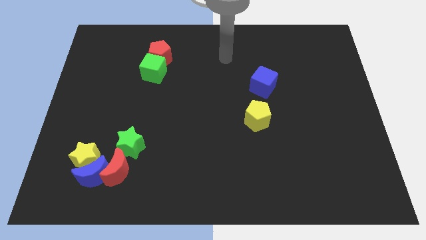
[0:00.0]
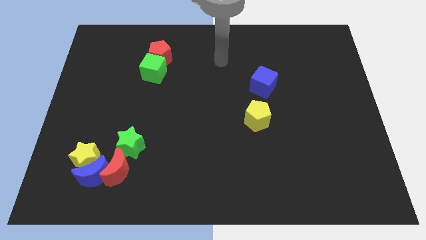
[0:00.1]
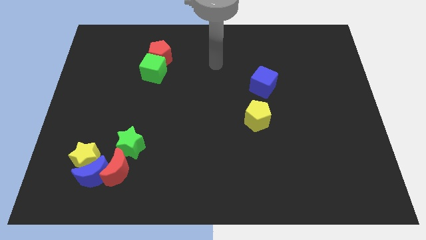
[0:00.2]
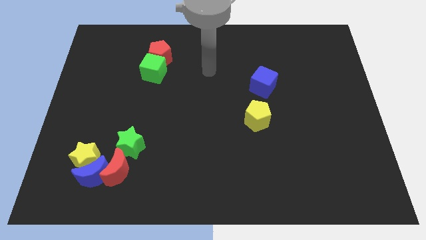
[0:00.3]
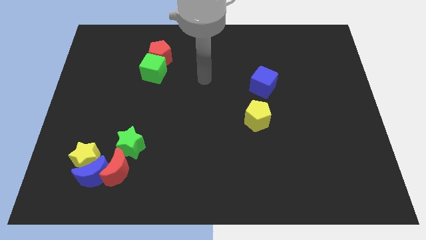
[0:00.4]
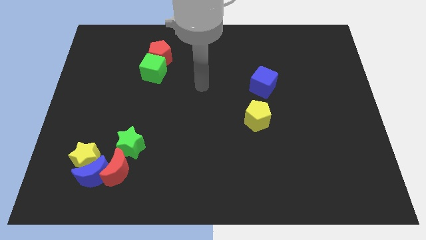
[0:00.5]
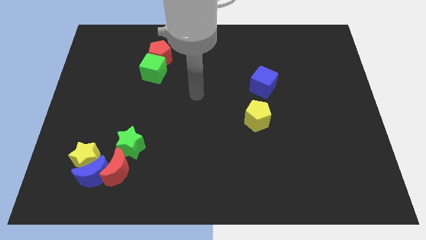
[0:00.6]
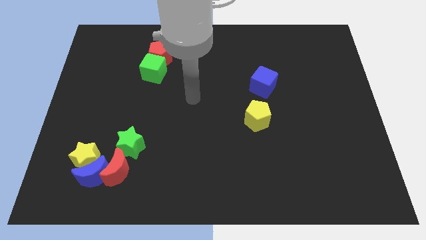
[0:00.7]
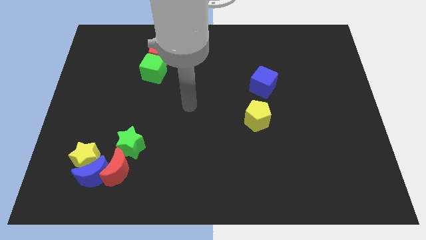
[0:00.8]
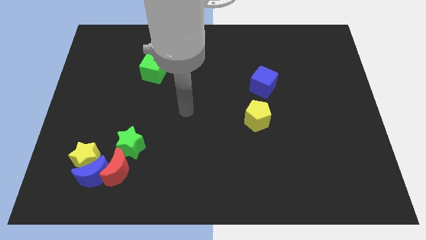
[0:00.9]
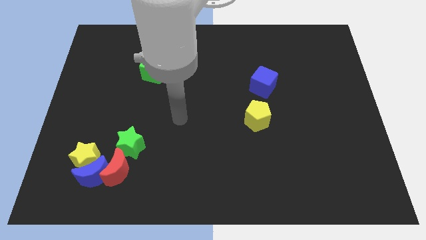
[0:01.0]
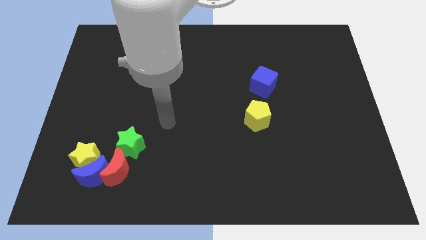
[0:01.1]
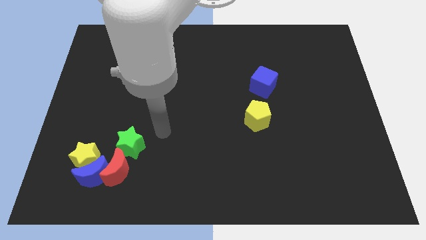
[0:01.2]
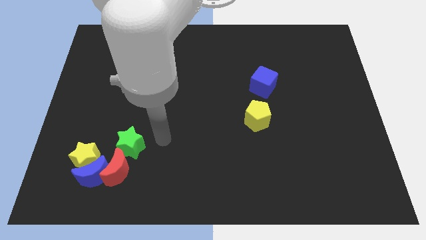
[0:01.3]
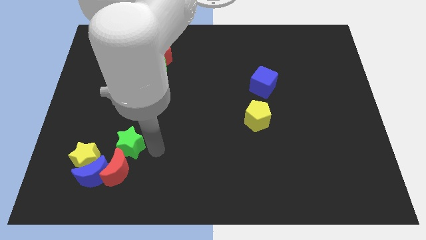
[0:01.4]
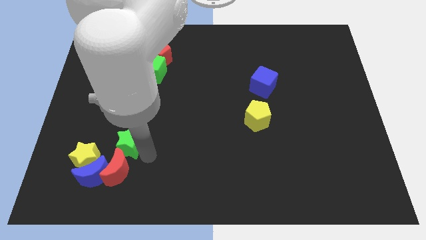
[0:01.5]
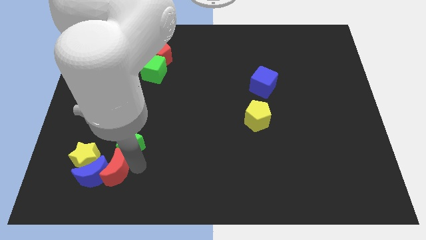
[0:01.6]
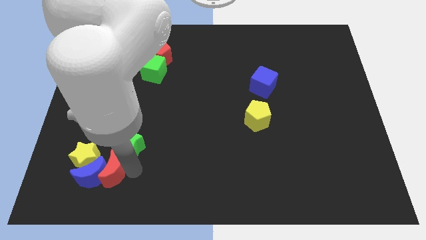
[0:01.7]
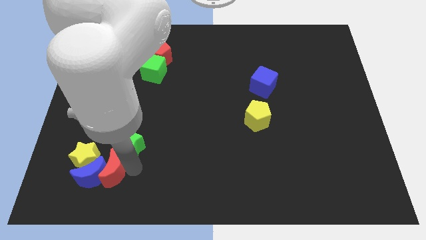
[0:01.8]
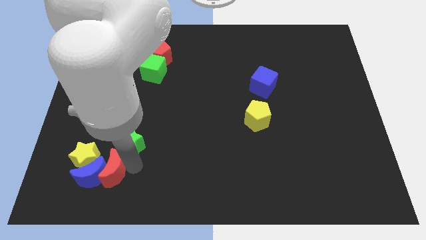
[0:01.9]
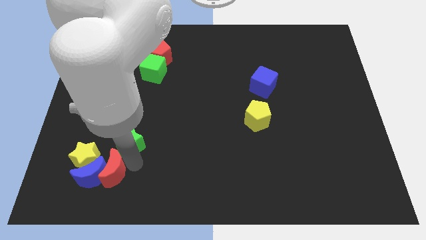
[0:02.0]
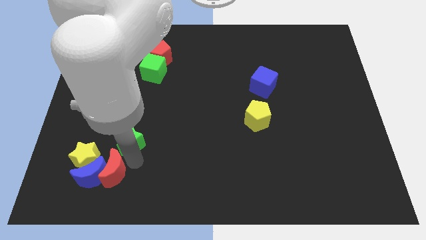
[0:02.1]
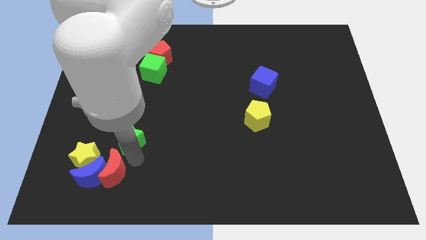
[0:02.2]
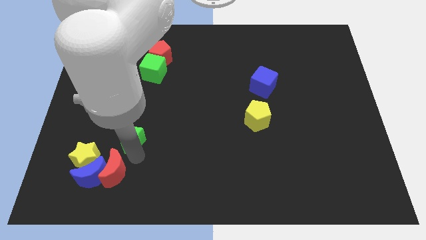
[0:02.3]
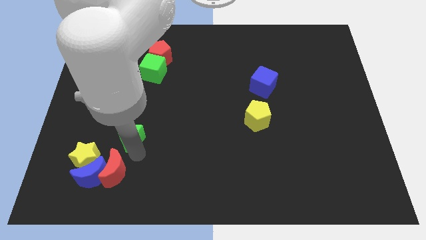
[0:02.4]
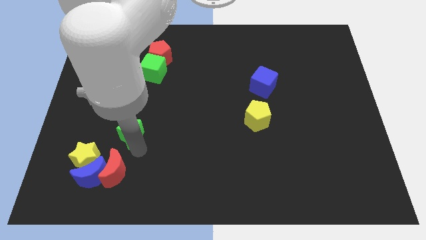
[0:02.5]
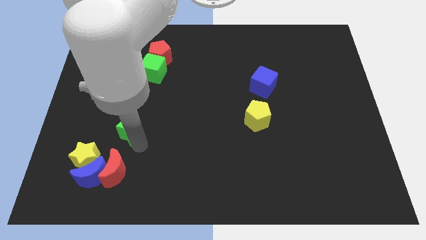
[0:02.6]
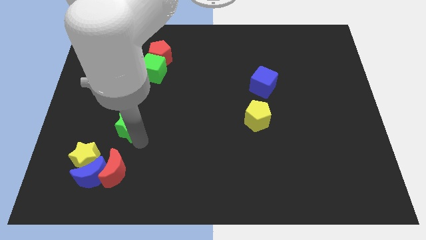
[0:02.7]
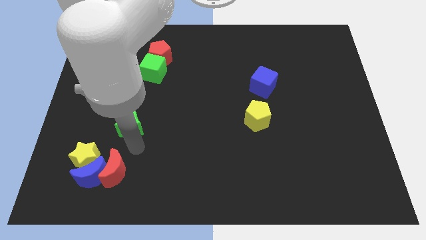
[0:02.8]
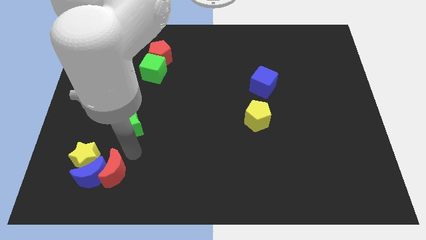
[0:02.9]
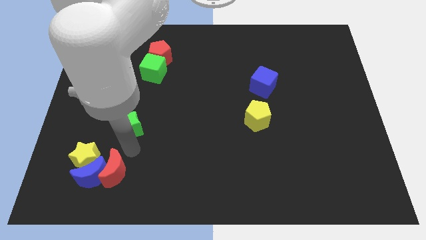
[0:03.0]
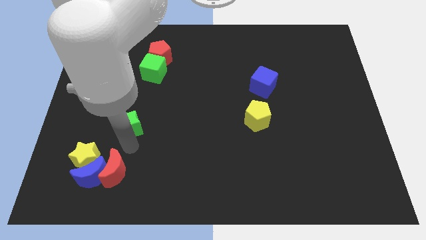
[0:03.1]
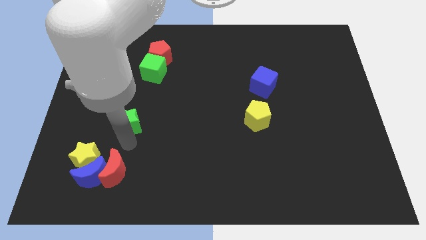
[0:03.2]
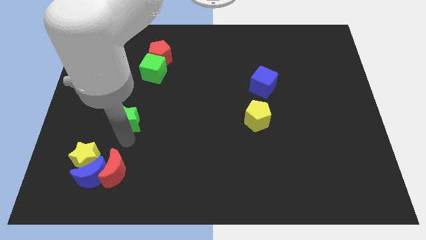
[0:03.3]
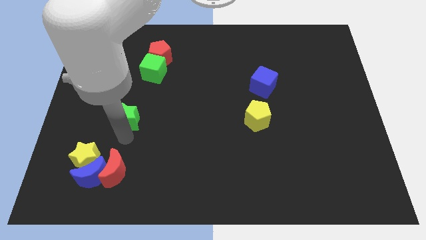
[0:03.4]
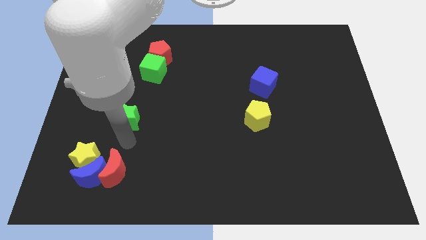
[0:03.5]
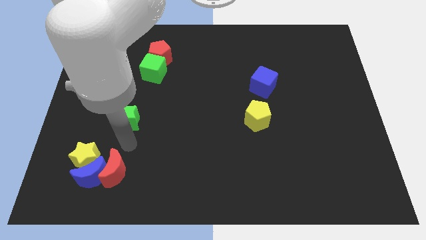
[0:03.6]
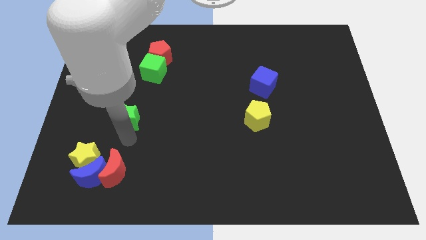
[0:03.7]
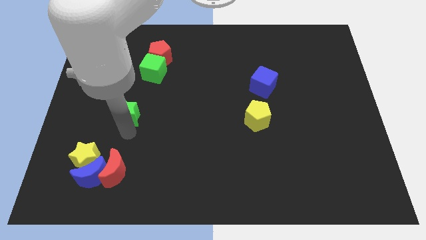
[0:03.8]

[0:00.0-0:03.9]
slide the green star a bit upwards

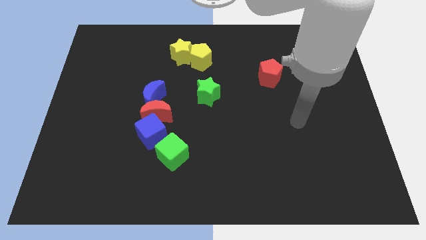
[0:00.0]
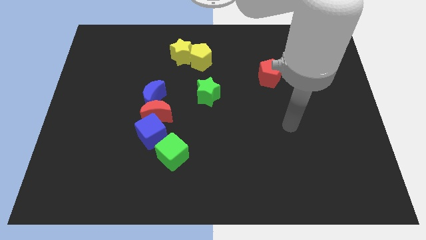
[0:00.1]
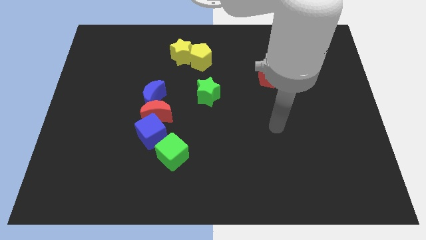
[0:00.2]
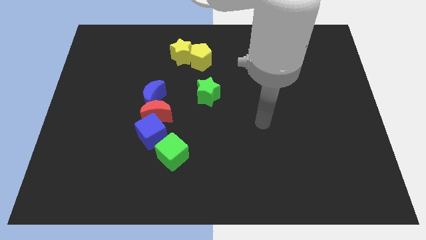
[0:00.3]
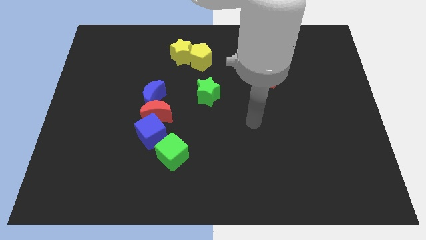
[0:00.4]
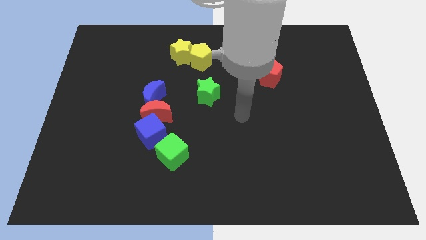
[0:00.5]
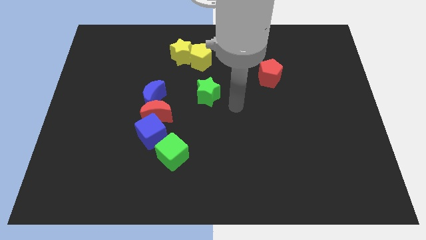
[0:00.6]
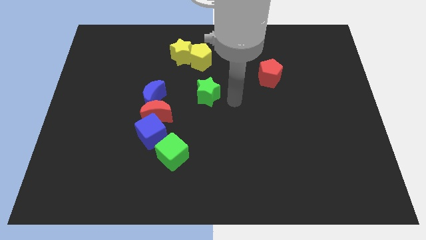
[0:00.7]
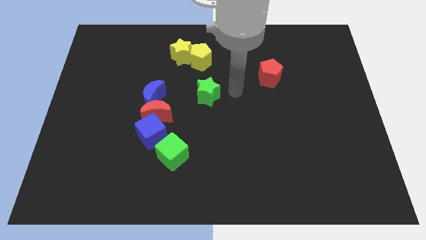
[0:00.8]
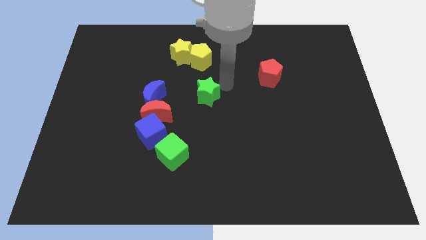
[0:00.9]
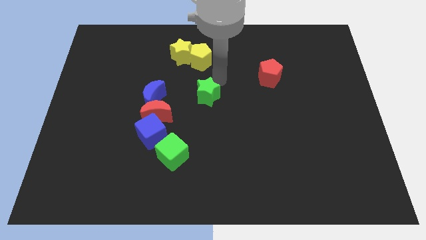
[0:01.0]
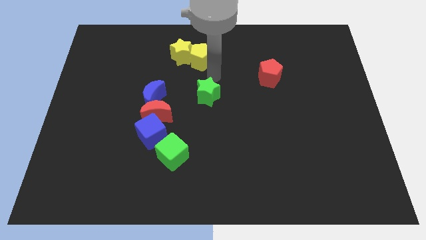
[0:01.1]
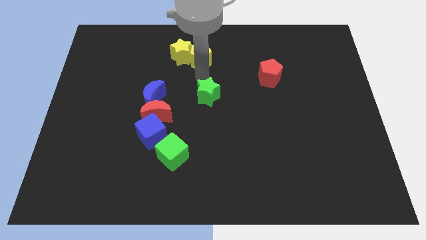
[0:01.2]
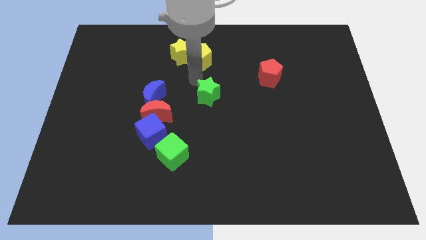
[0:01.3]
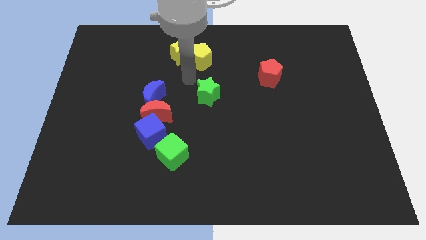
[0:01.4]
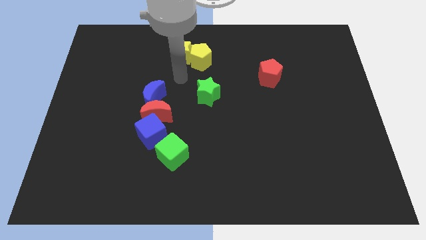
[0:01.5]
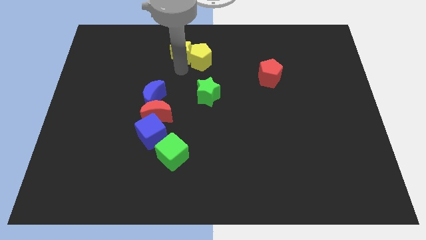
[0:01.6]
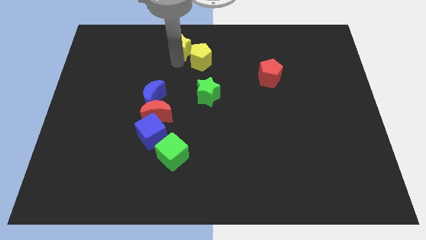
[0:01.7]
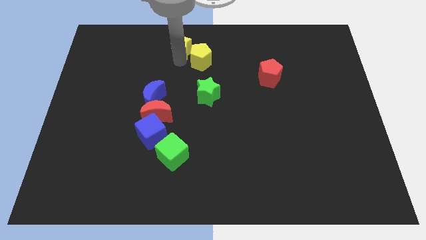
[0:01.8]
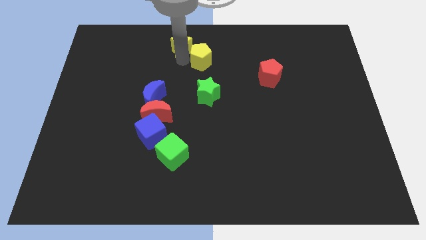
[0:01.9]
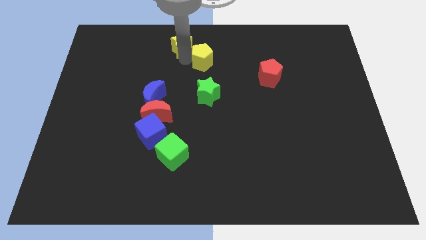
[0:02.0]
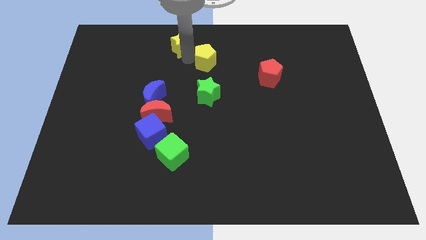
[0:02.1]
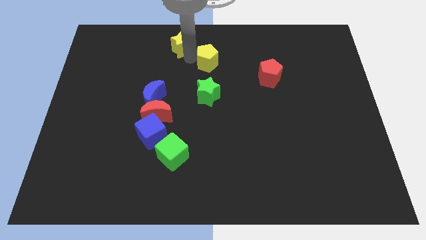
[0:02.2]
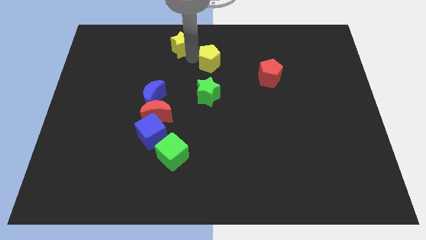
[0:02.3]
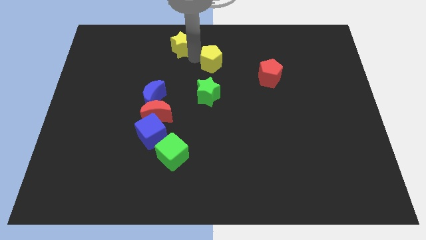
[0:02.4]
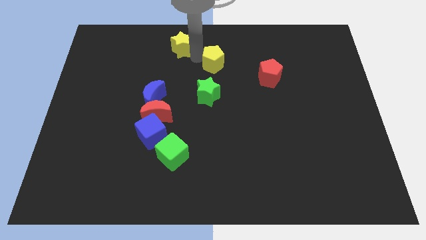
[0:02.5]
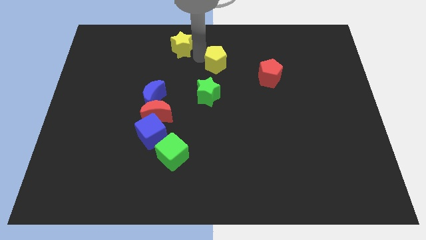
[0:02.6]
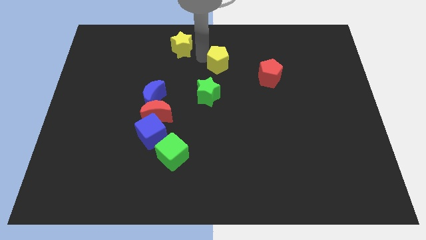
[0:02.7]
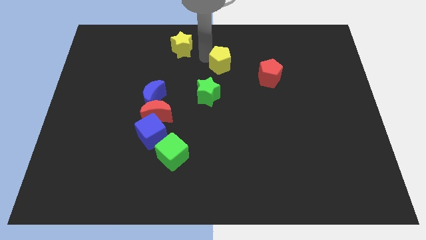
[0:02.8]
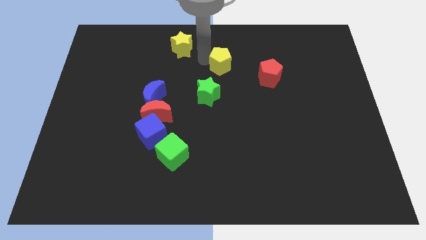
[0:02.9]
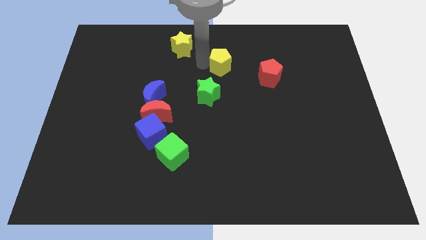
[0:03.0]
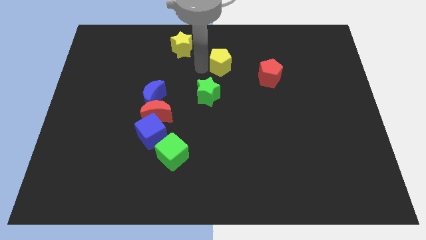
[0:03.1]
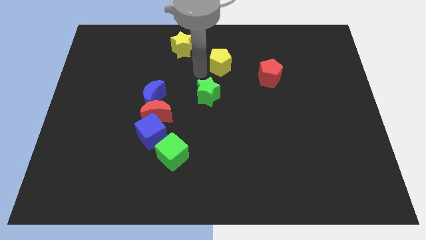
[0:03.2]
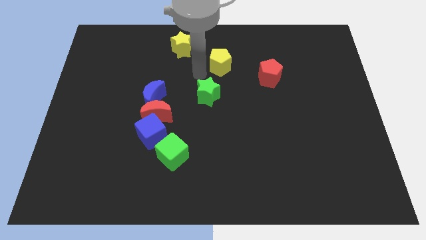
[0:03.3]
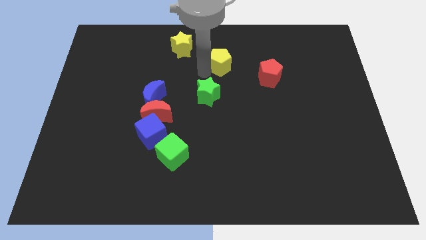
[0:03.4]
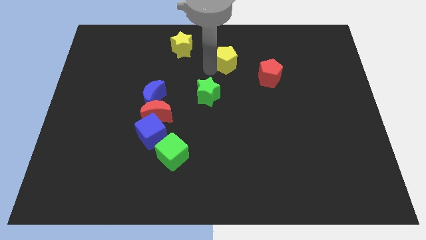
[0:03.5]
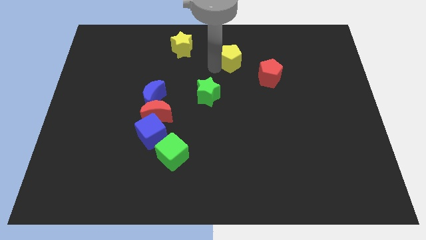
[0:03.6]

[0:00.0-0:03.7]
push the yellow pentagon right somewhat
